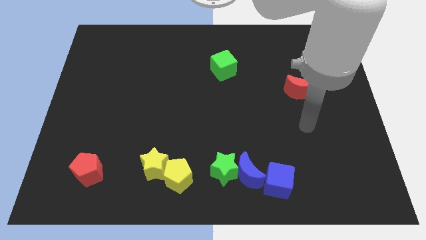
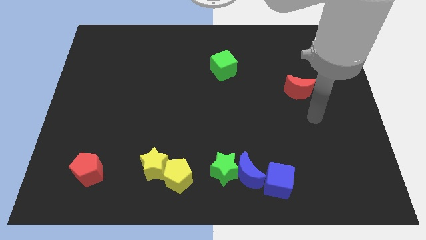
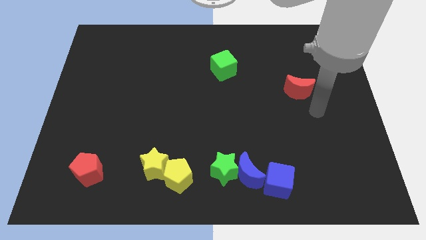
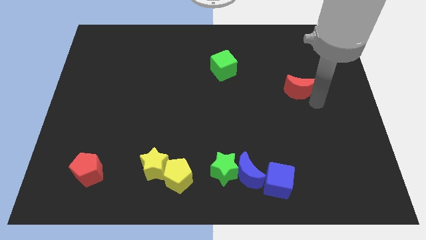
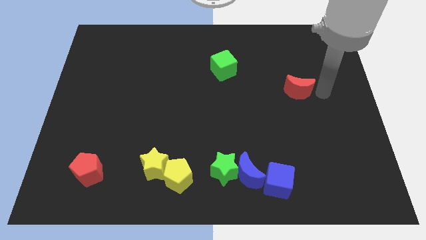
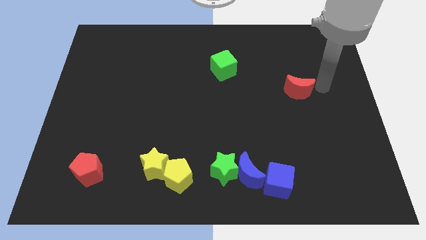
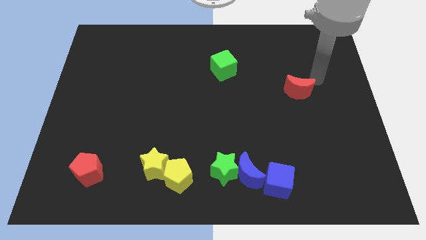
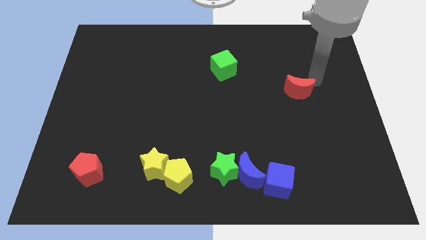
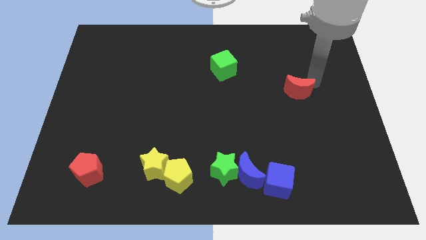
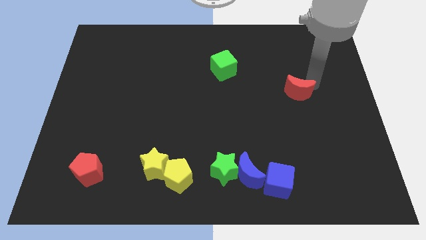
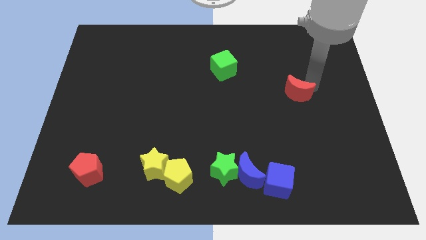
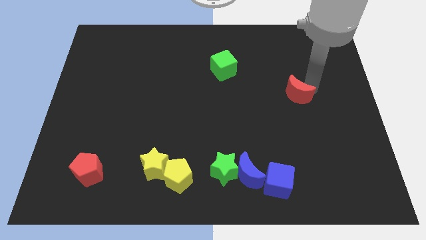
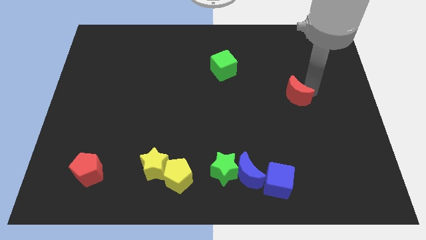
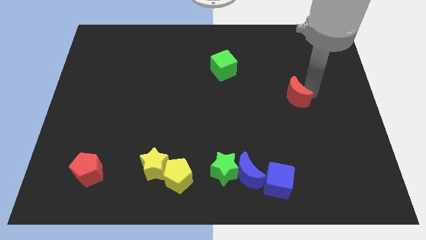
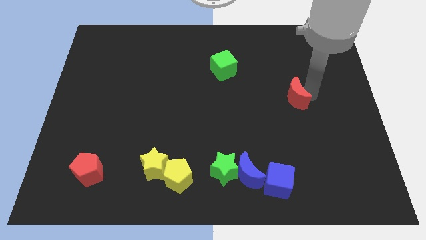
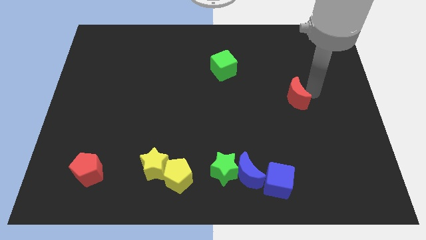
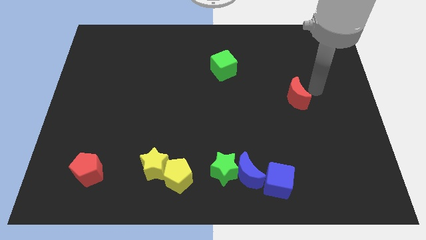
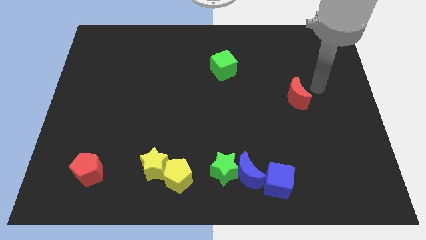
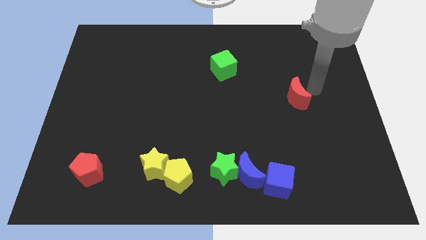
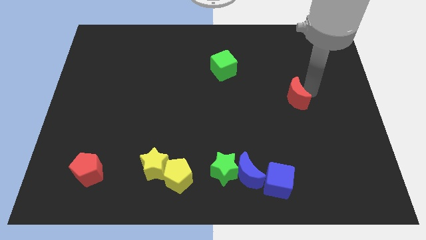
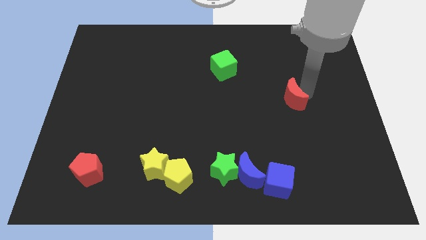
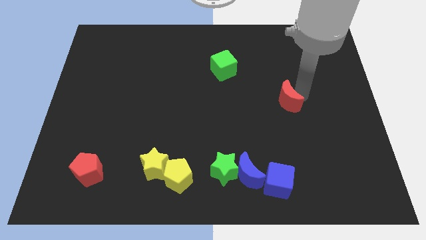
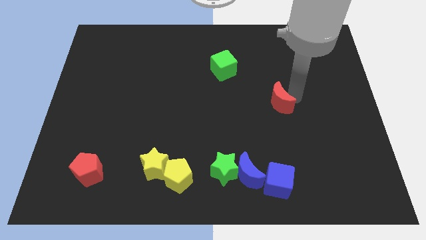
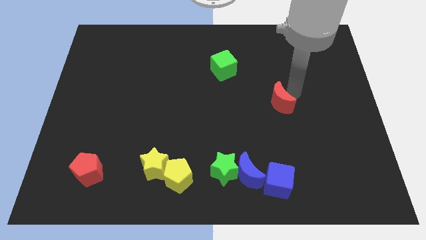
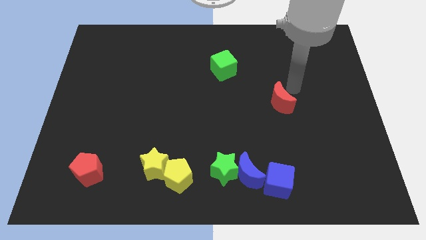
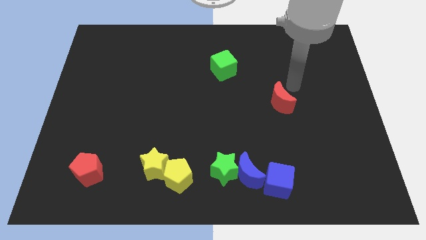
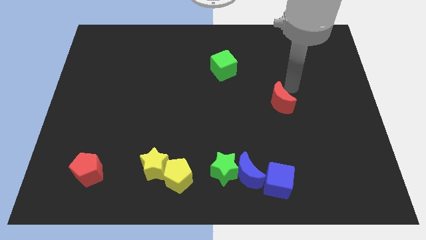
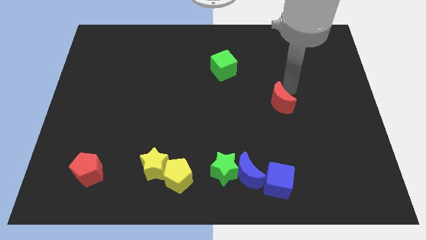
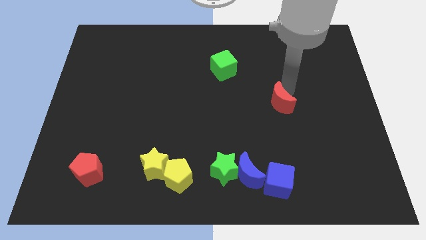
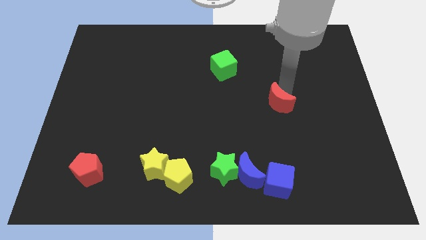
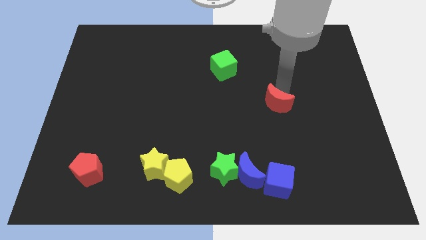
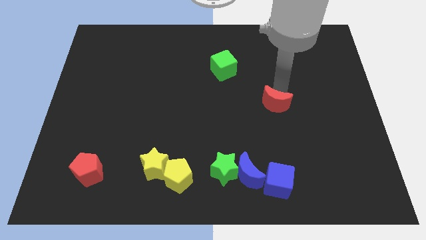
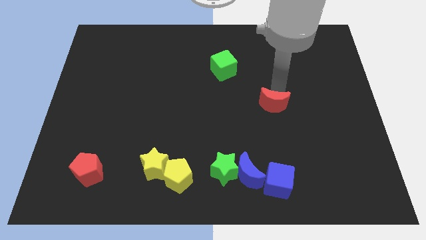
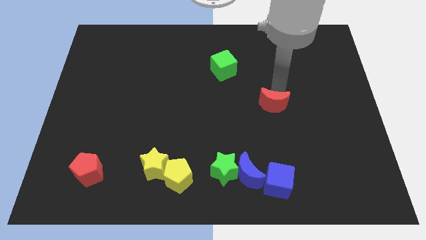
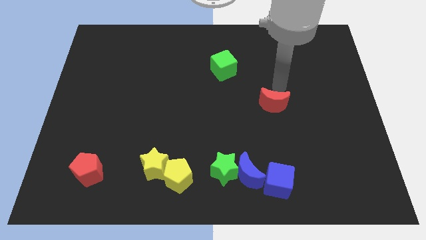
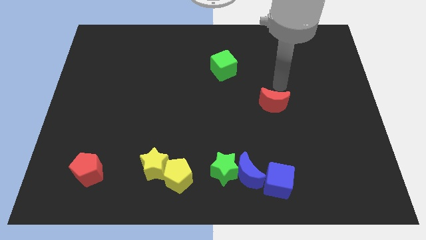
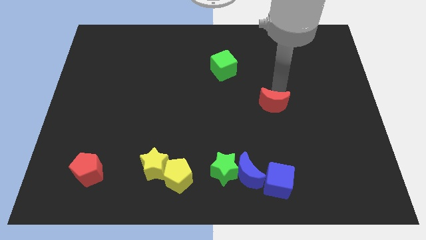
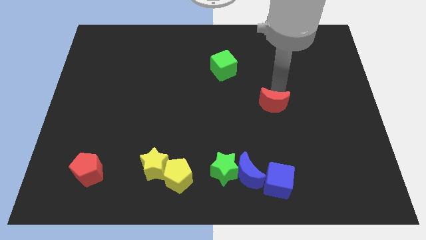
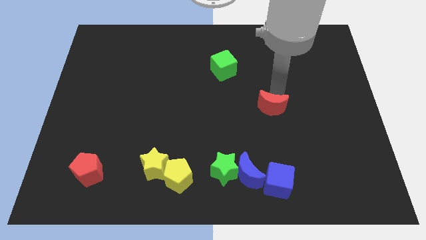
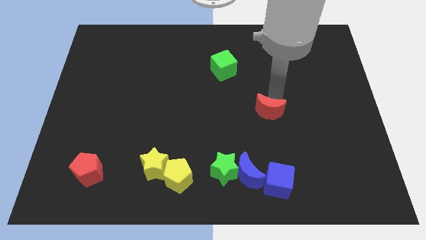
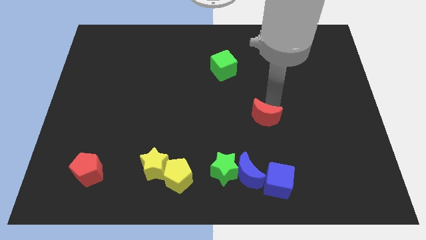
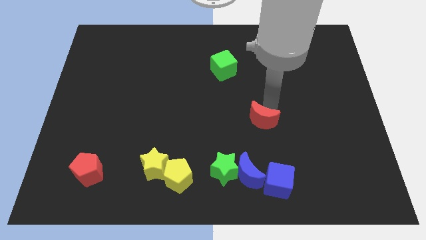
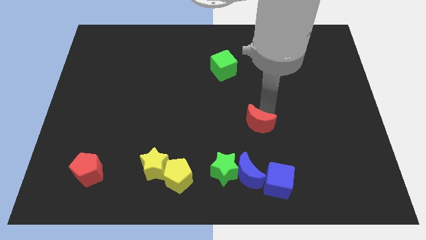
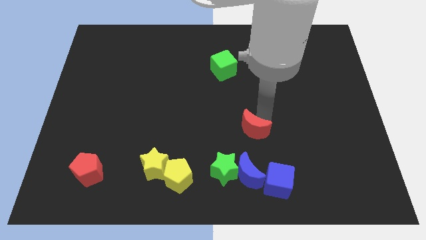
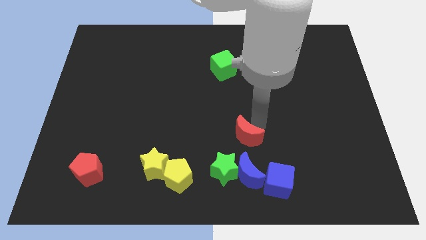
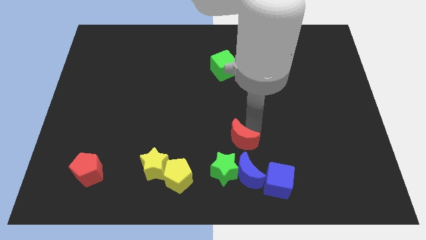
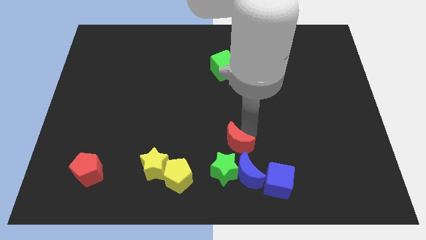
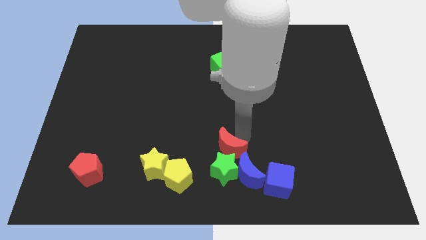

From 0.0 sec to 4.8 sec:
move the red moon next to the green star

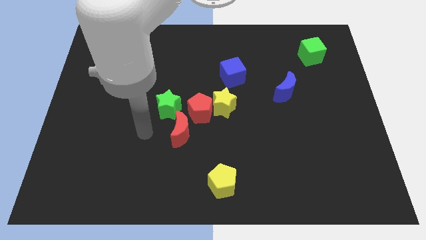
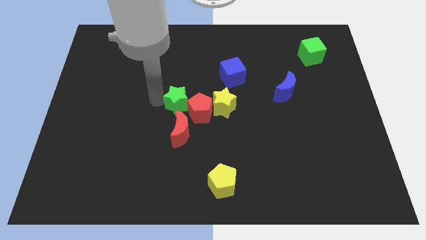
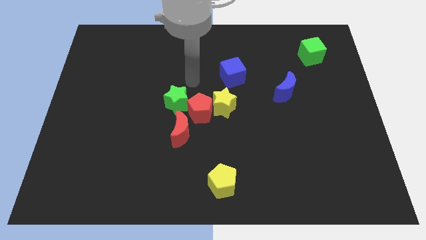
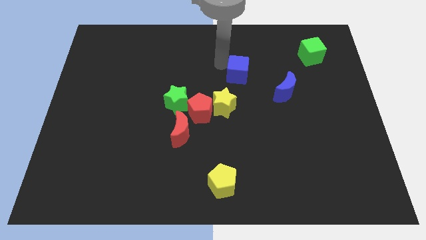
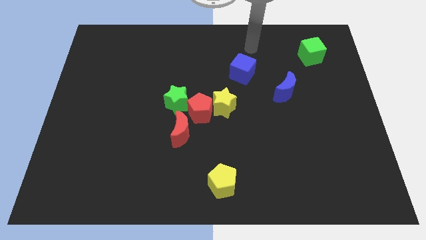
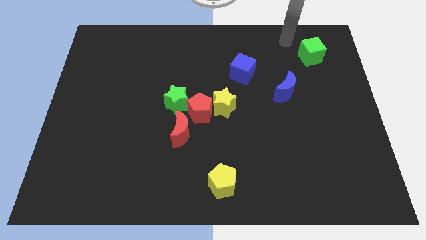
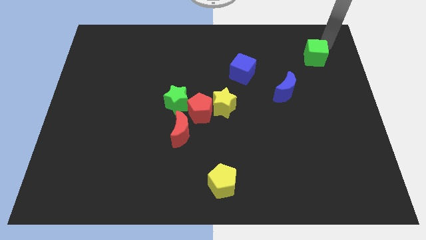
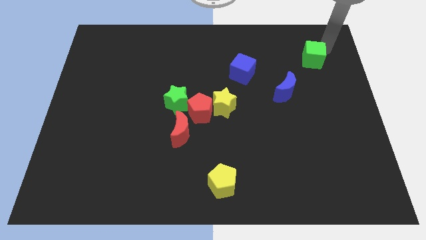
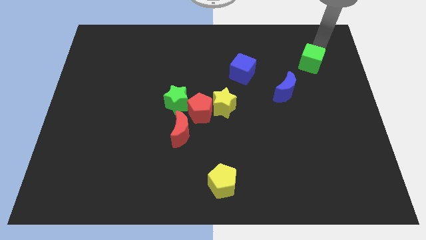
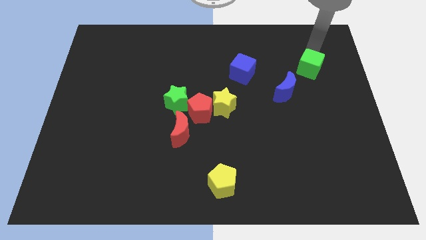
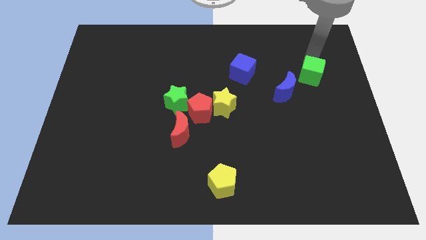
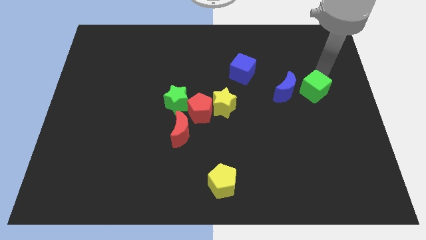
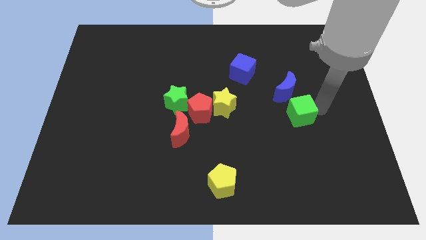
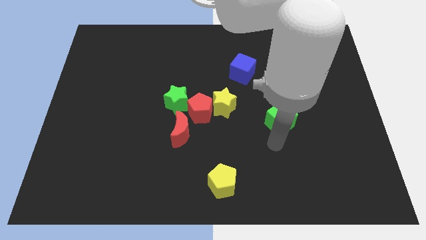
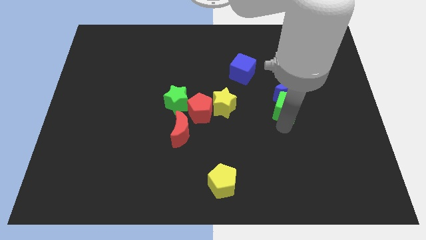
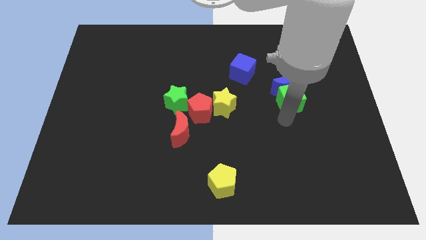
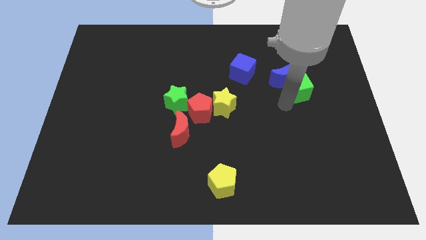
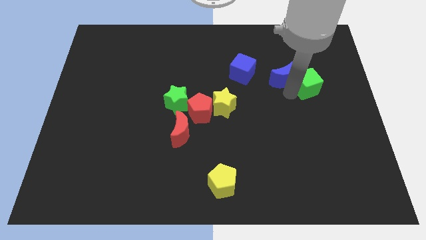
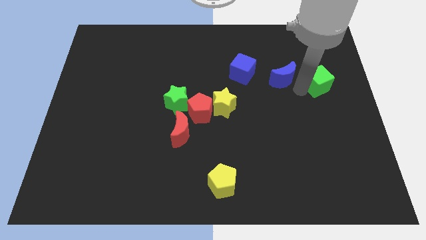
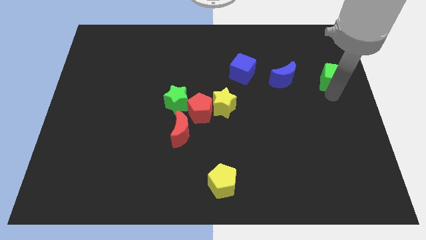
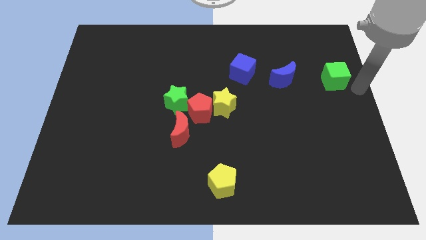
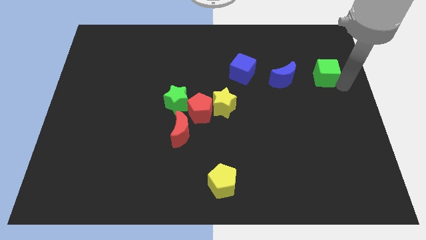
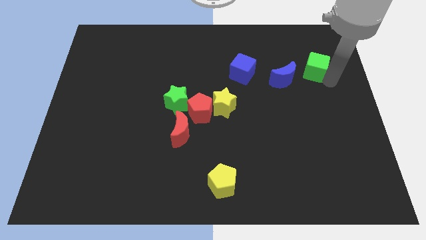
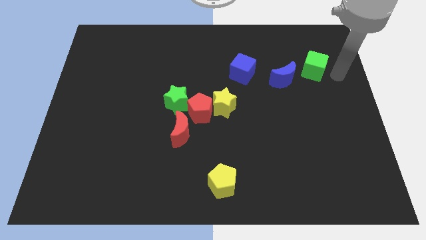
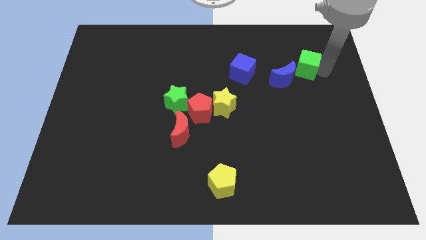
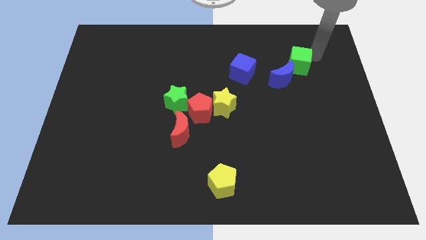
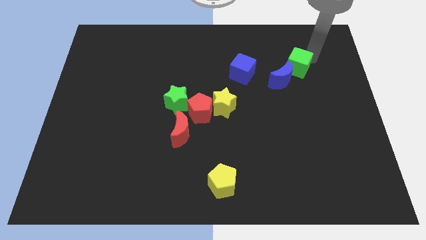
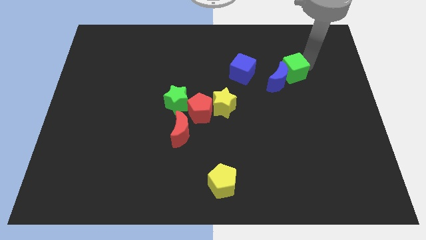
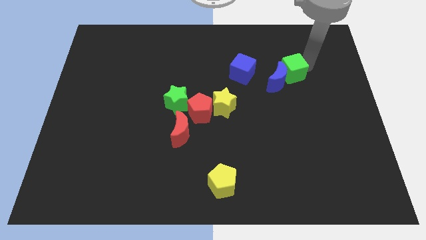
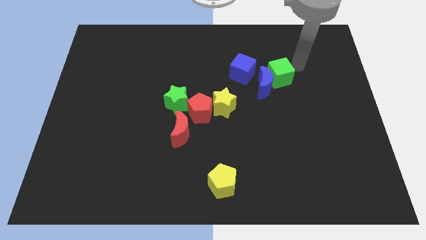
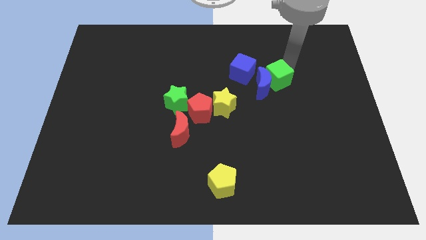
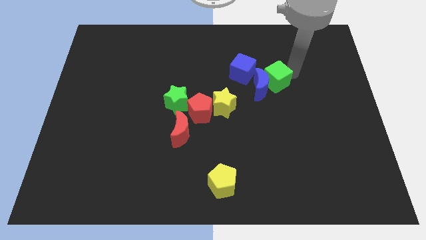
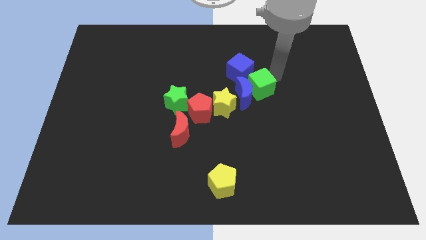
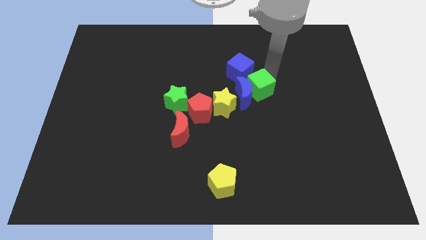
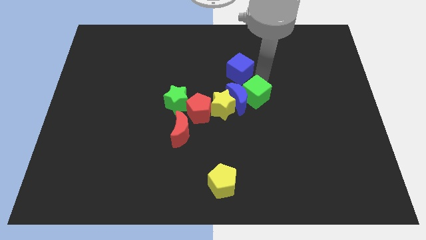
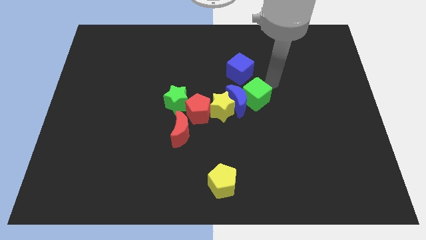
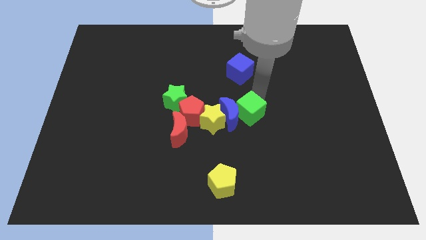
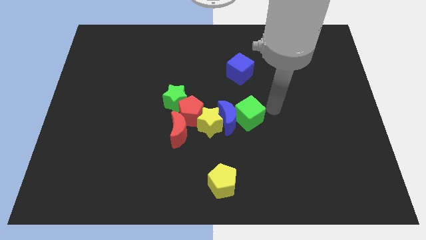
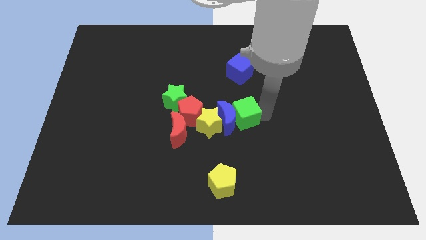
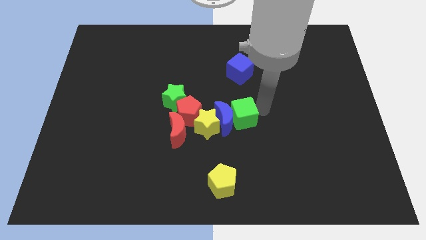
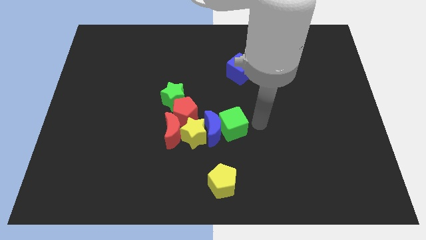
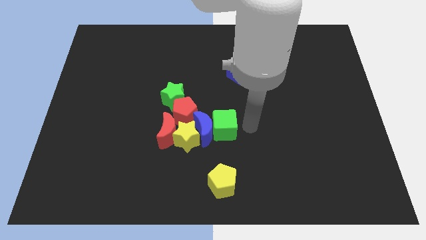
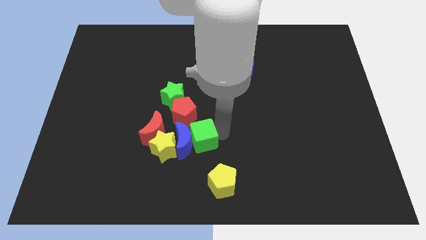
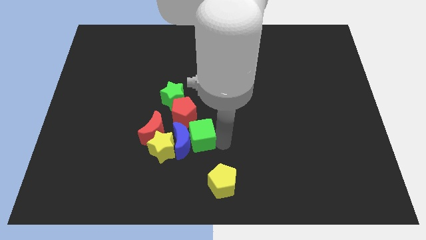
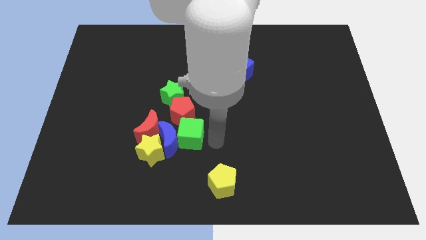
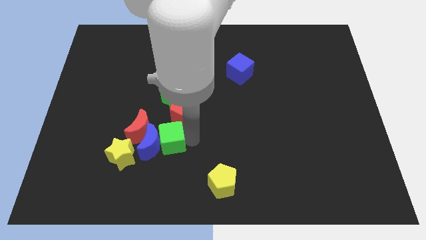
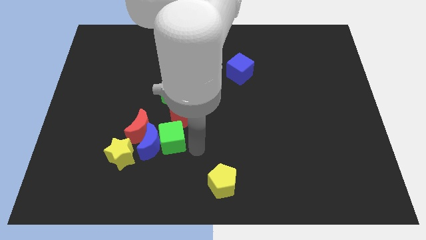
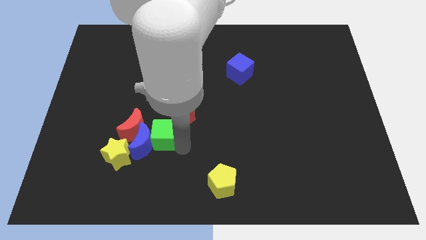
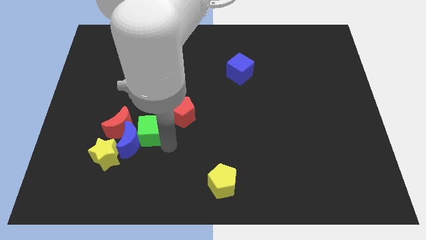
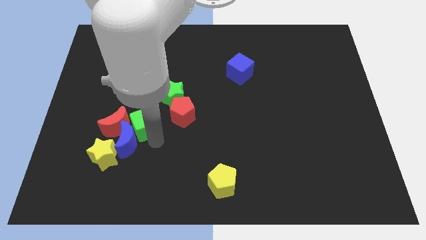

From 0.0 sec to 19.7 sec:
slide the green cube to the red moon
